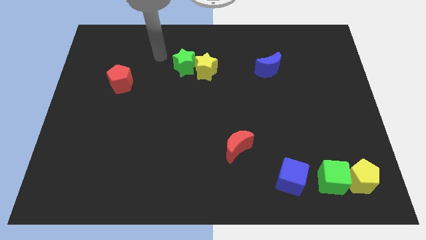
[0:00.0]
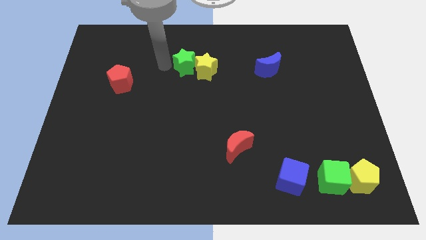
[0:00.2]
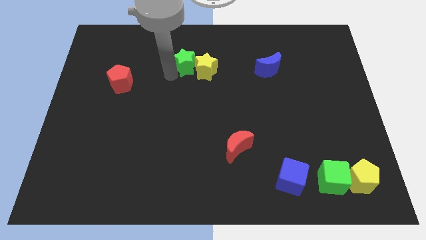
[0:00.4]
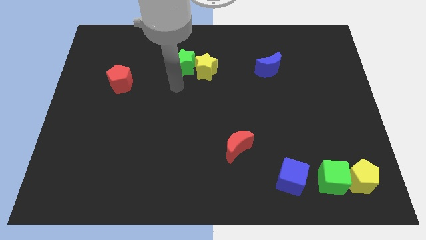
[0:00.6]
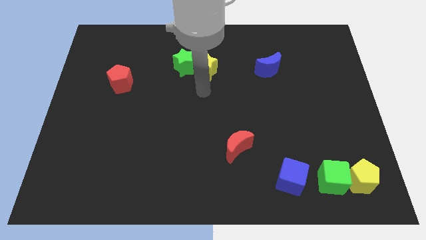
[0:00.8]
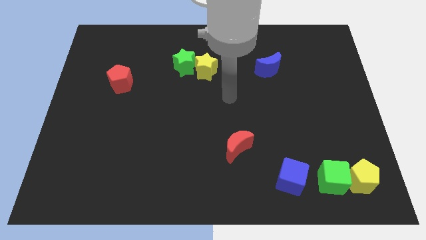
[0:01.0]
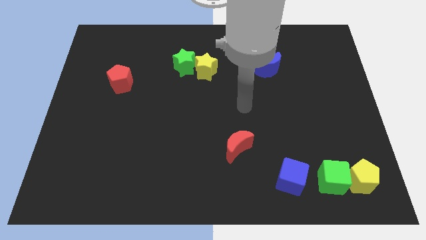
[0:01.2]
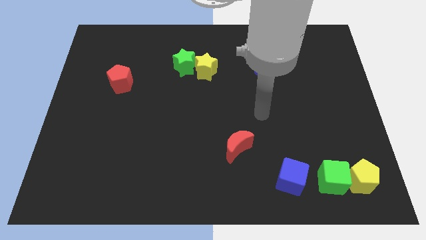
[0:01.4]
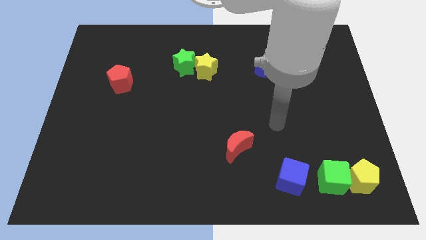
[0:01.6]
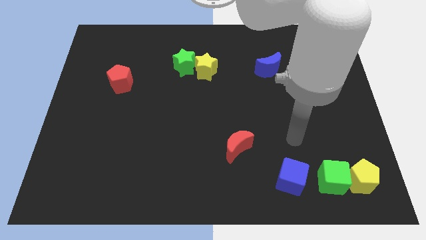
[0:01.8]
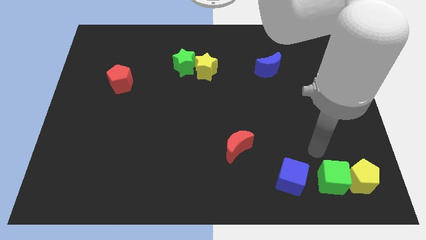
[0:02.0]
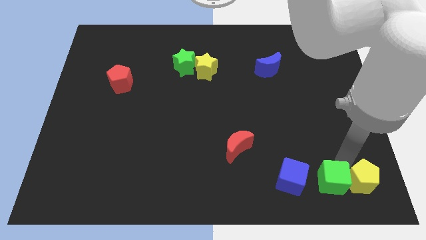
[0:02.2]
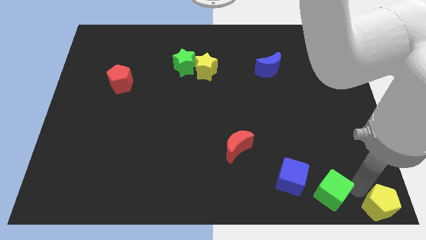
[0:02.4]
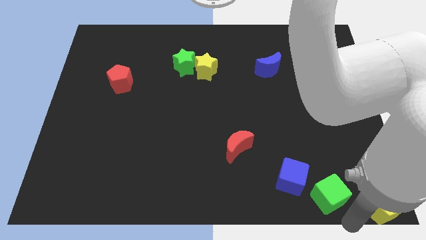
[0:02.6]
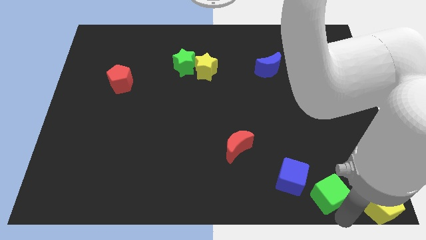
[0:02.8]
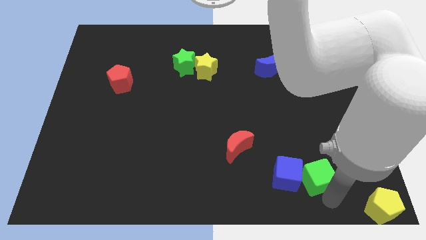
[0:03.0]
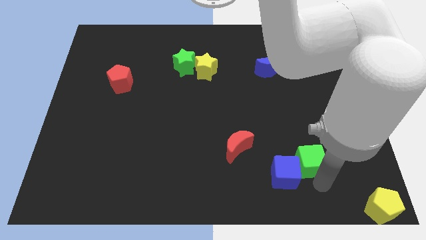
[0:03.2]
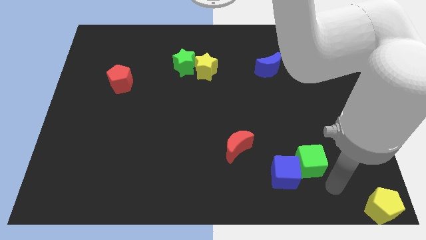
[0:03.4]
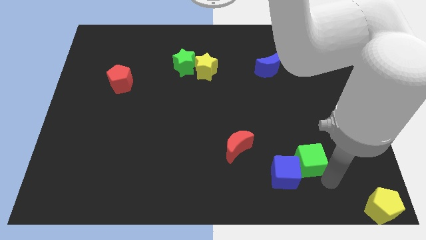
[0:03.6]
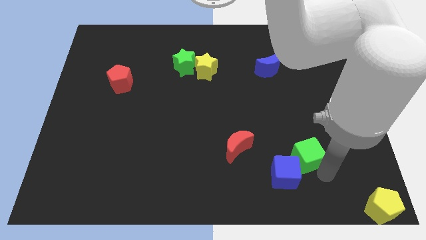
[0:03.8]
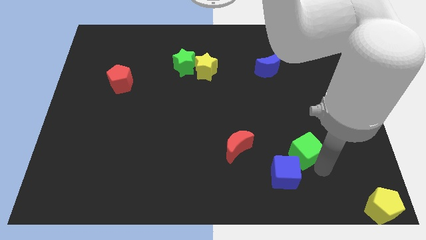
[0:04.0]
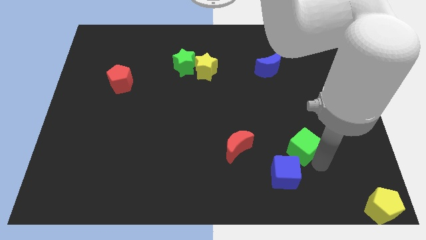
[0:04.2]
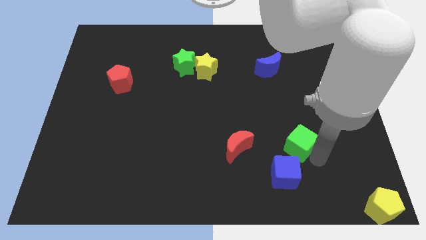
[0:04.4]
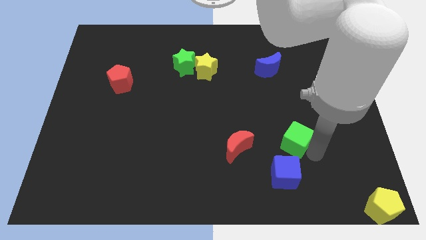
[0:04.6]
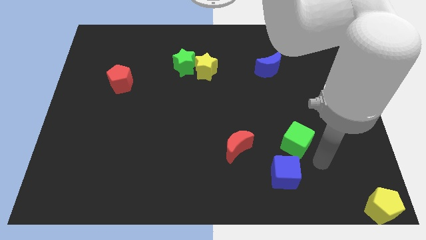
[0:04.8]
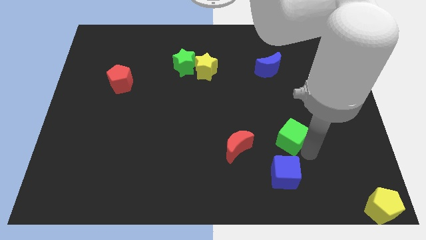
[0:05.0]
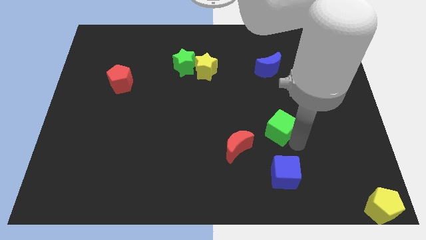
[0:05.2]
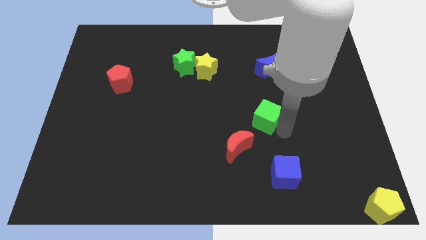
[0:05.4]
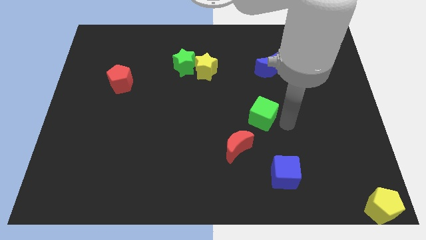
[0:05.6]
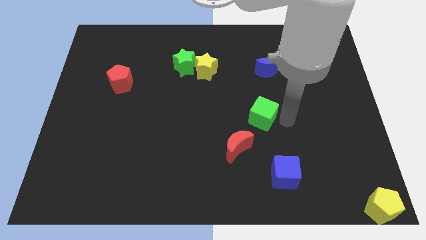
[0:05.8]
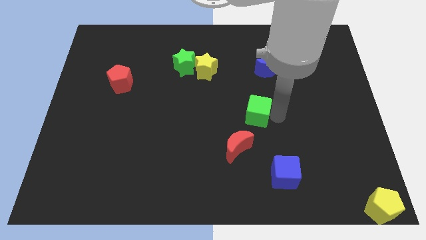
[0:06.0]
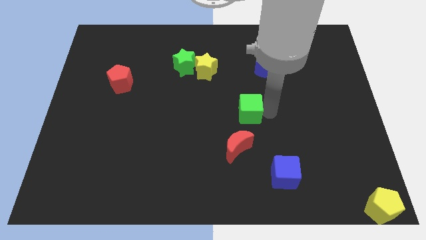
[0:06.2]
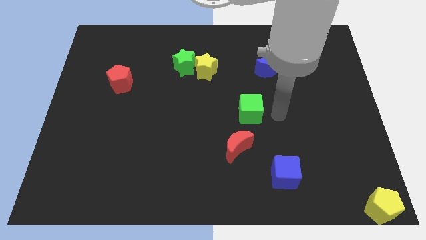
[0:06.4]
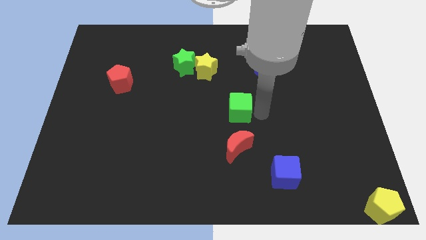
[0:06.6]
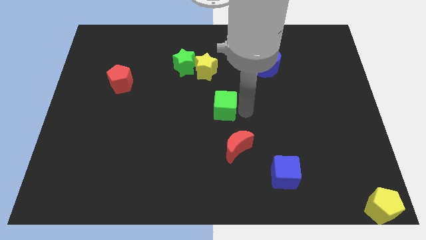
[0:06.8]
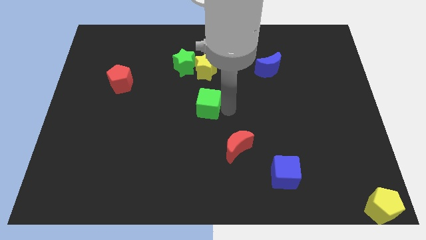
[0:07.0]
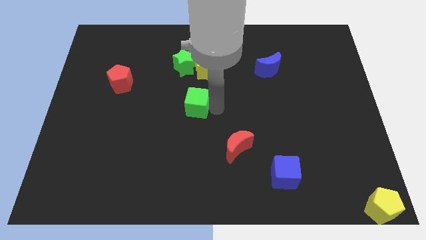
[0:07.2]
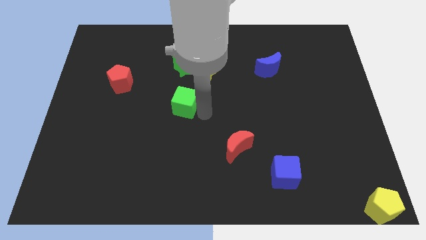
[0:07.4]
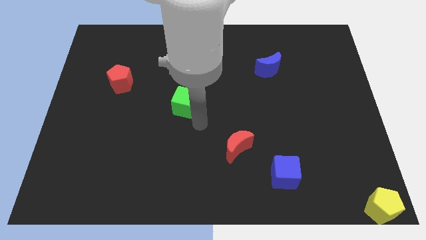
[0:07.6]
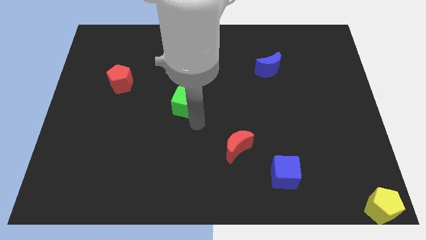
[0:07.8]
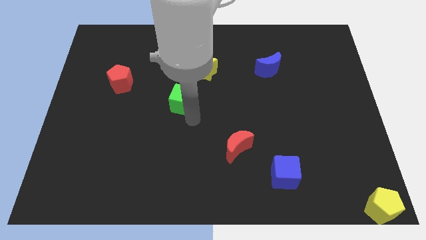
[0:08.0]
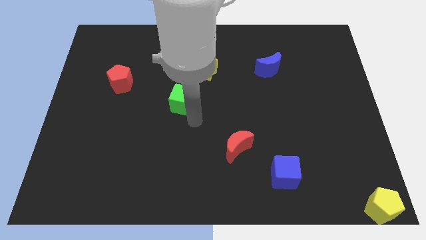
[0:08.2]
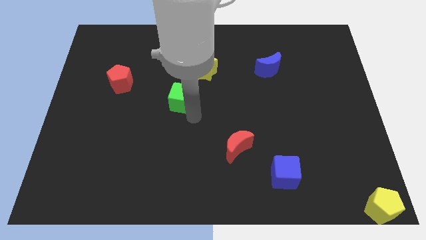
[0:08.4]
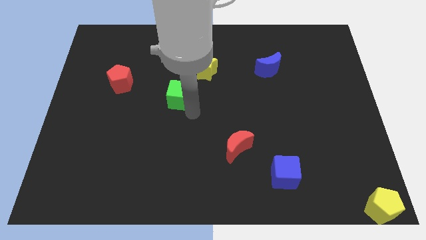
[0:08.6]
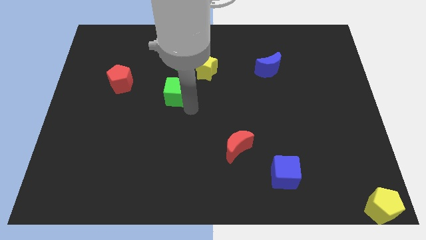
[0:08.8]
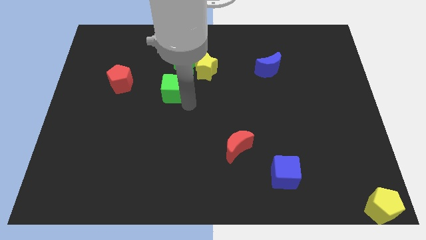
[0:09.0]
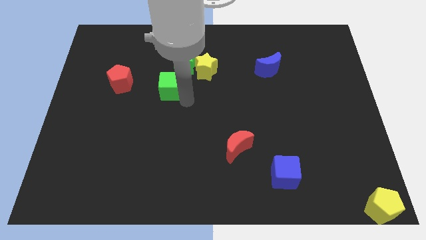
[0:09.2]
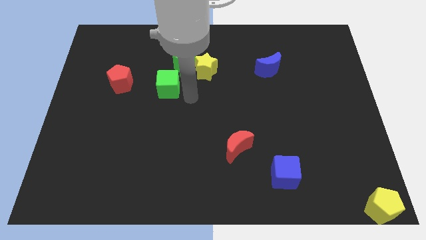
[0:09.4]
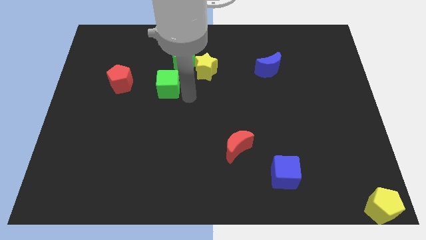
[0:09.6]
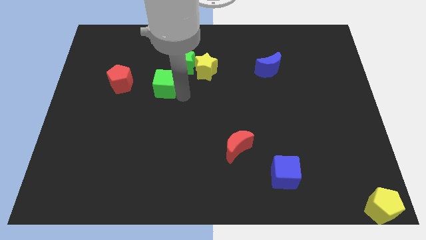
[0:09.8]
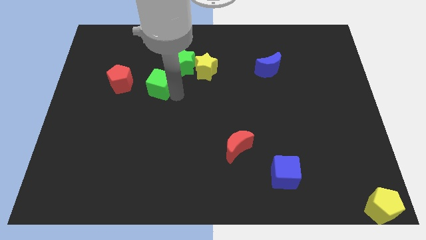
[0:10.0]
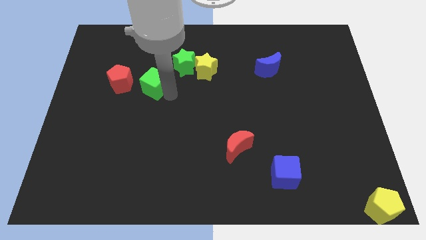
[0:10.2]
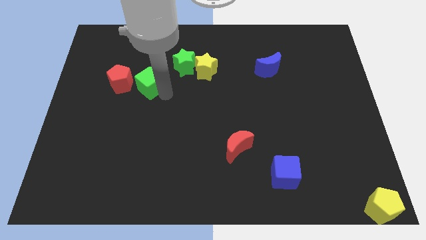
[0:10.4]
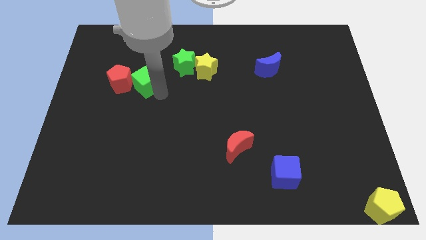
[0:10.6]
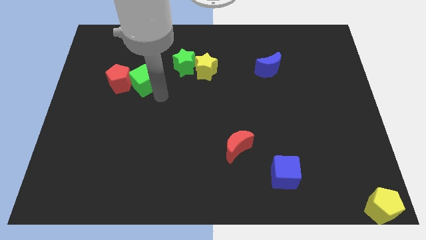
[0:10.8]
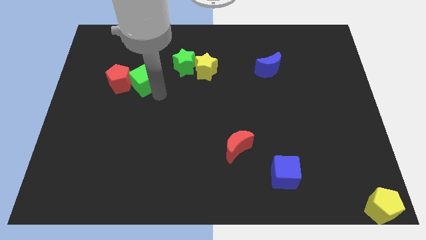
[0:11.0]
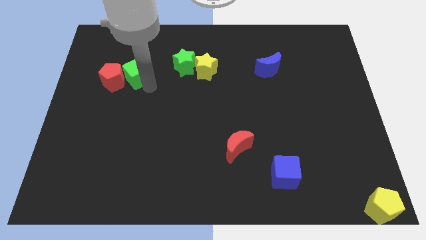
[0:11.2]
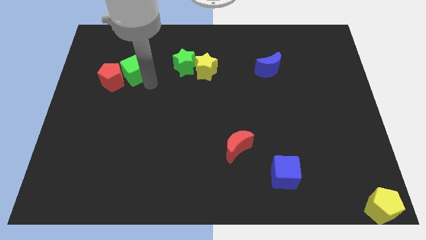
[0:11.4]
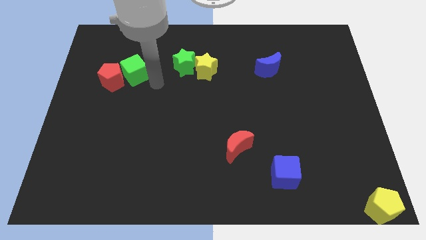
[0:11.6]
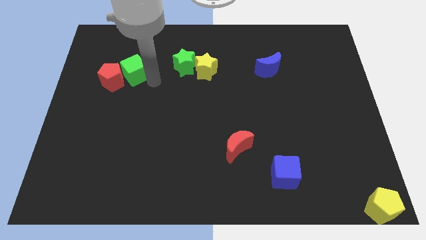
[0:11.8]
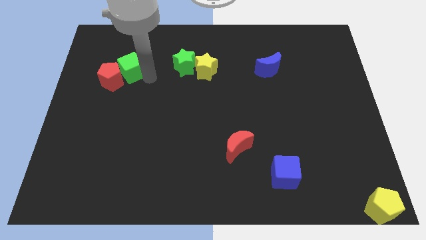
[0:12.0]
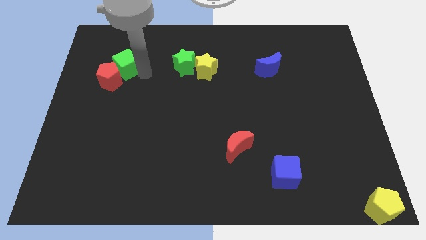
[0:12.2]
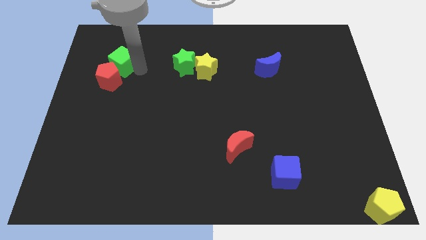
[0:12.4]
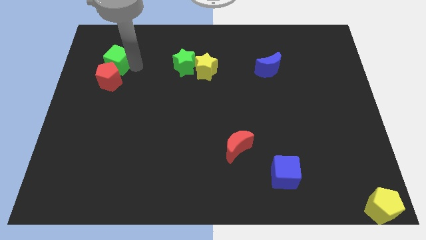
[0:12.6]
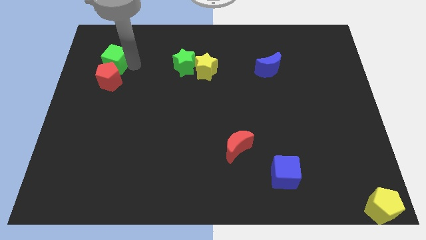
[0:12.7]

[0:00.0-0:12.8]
slide the green cube diagonally up and to the left of the red pentagon
